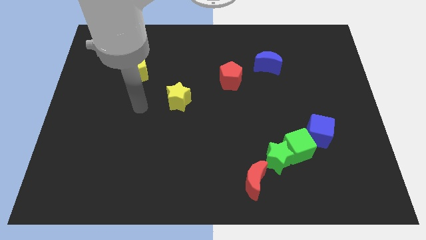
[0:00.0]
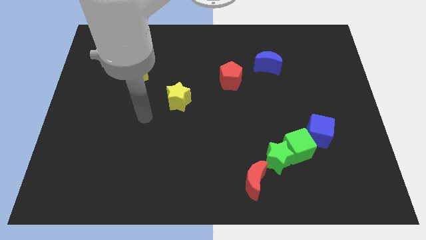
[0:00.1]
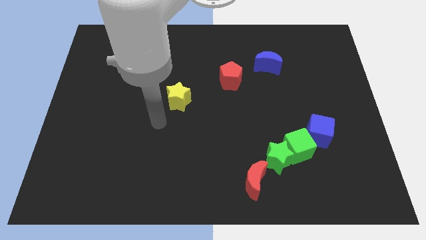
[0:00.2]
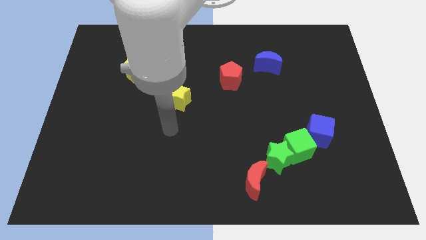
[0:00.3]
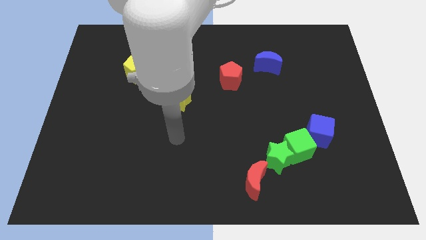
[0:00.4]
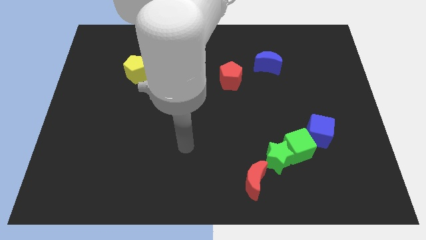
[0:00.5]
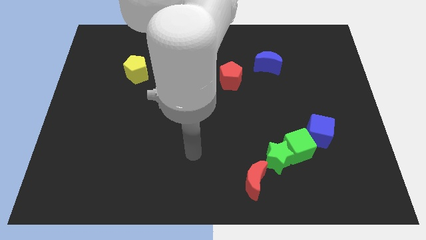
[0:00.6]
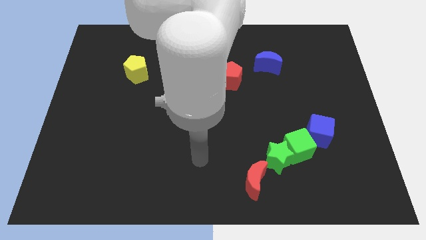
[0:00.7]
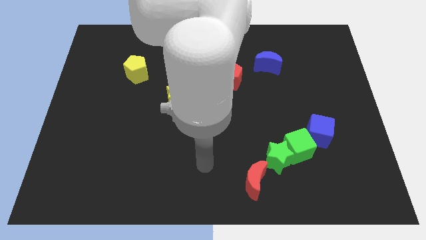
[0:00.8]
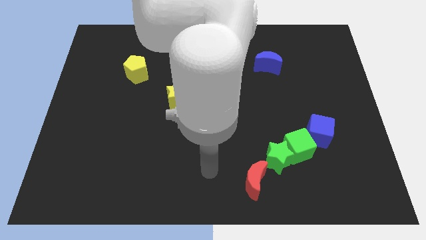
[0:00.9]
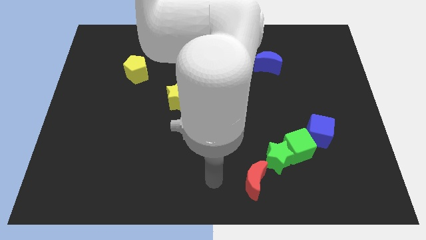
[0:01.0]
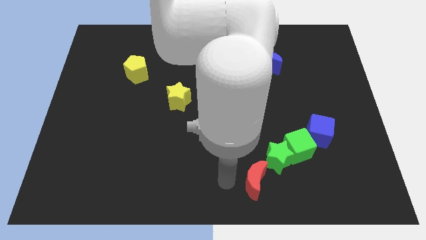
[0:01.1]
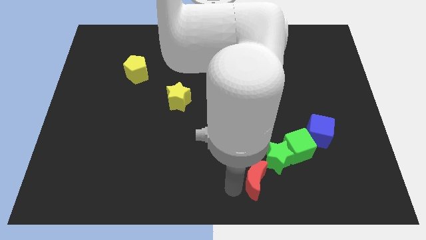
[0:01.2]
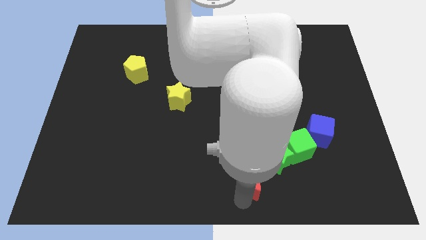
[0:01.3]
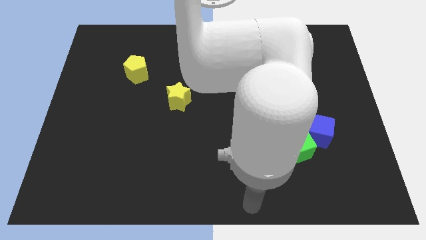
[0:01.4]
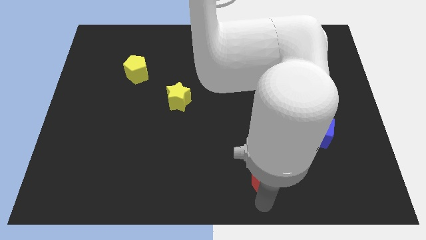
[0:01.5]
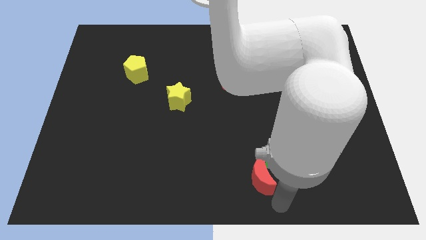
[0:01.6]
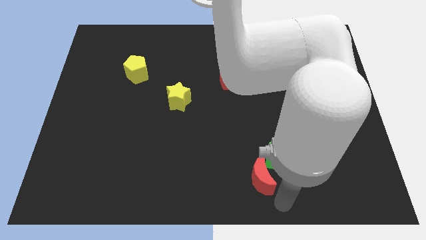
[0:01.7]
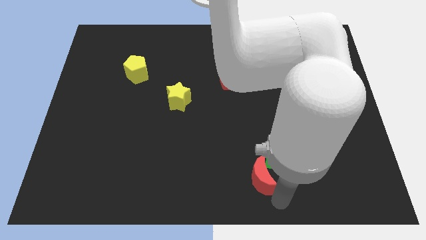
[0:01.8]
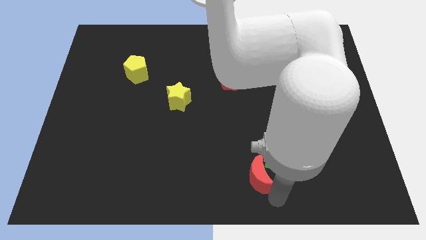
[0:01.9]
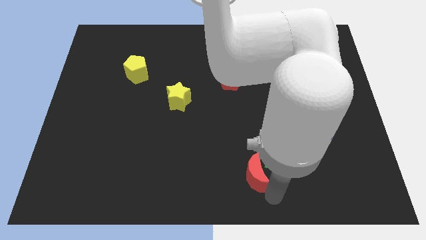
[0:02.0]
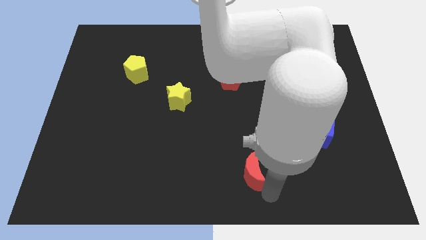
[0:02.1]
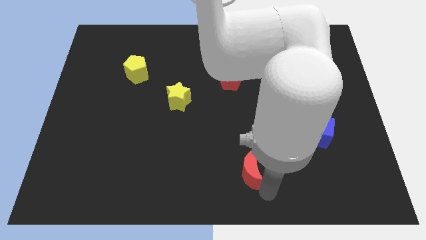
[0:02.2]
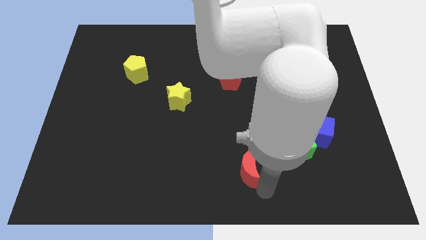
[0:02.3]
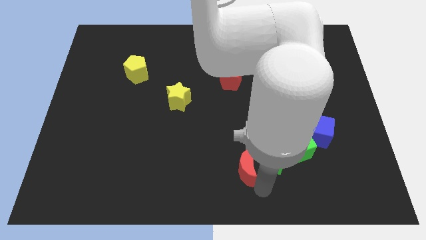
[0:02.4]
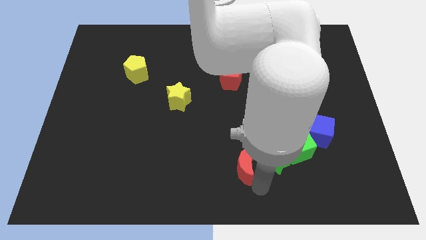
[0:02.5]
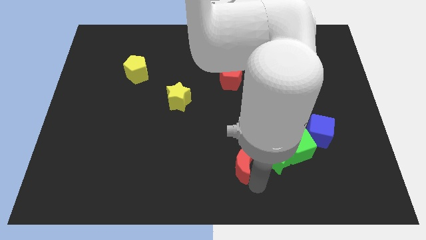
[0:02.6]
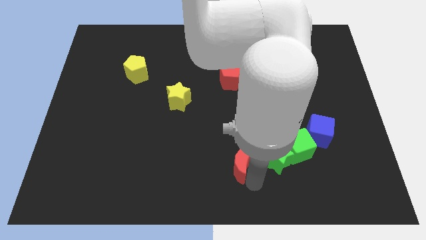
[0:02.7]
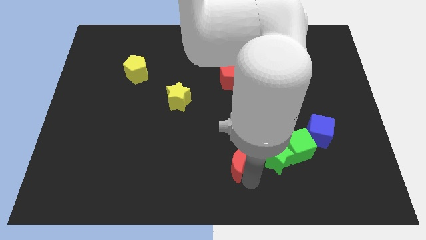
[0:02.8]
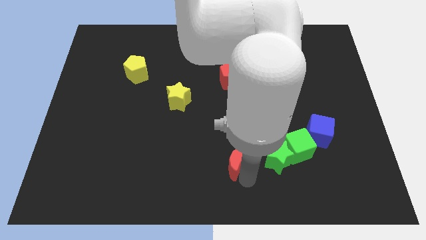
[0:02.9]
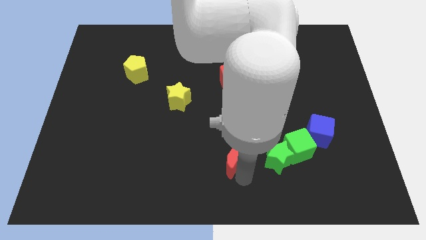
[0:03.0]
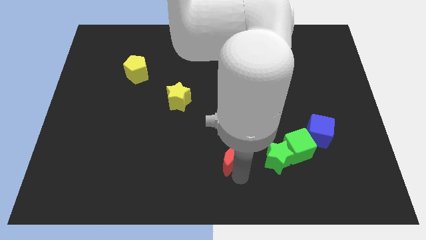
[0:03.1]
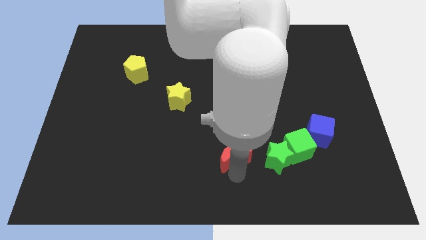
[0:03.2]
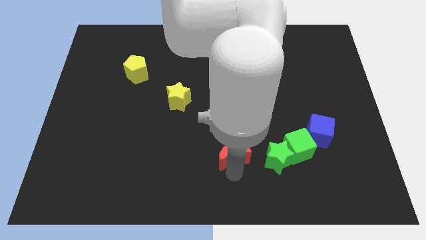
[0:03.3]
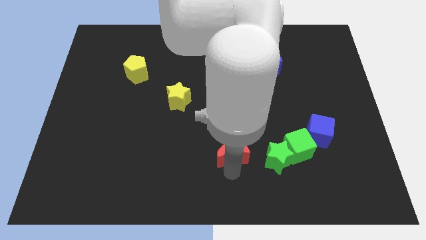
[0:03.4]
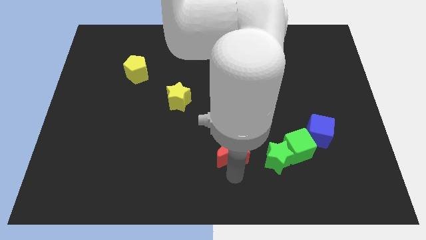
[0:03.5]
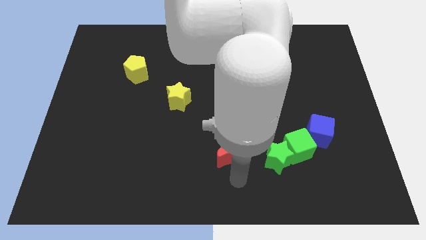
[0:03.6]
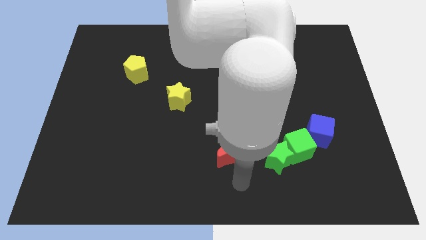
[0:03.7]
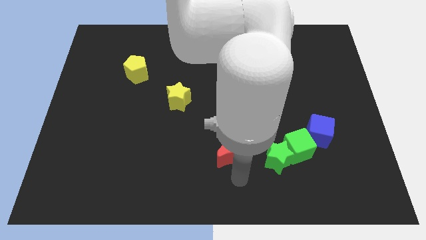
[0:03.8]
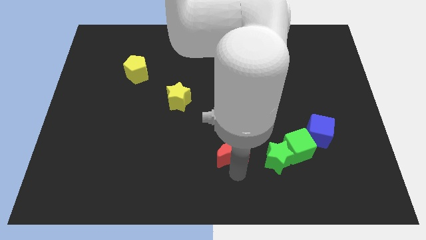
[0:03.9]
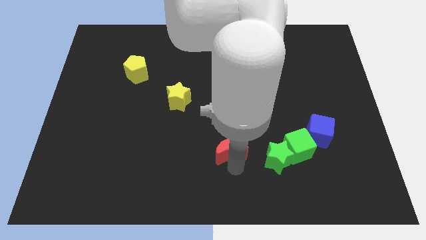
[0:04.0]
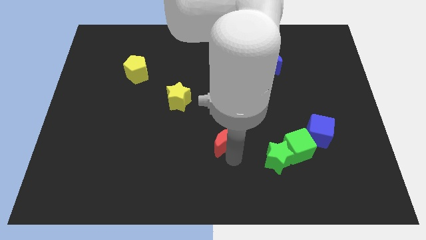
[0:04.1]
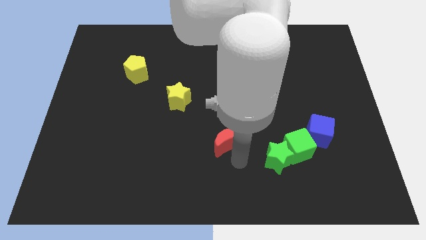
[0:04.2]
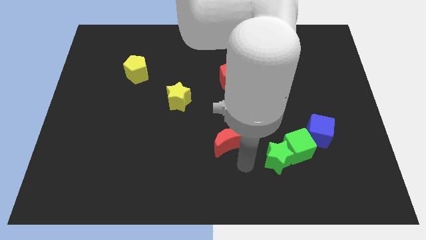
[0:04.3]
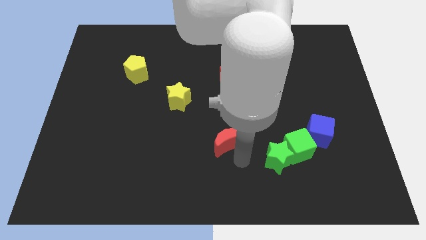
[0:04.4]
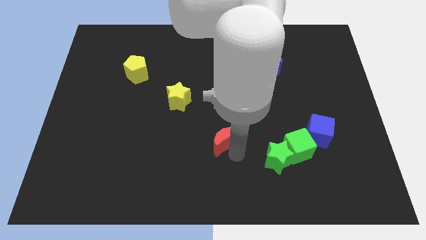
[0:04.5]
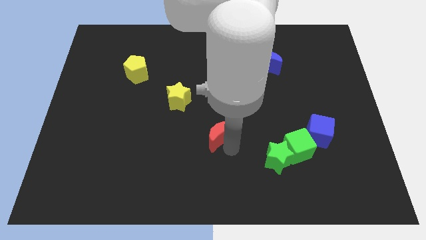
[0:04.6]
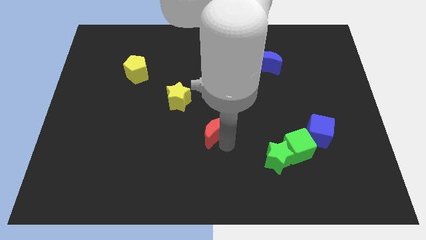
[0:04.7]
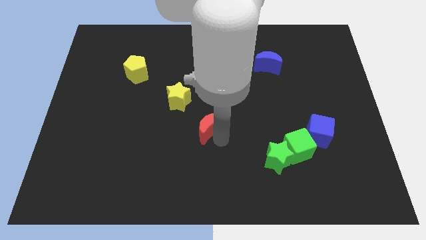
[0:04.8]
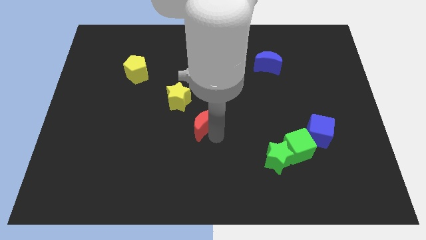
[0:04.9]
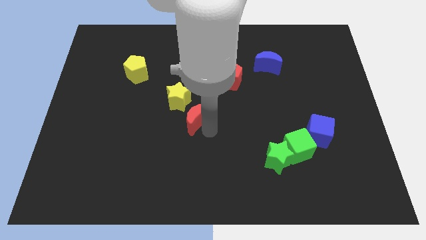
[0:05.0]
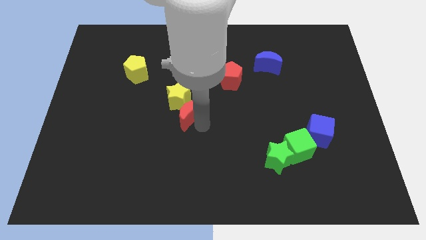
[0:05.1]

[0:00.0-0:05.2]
move the red moon to the yellow star

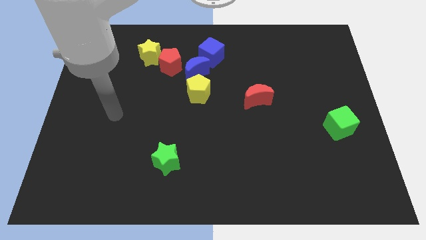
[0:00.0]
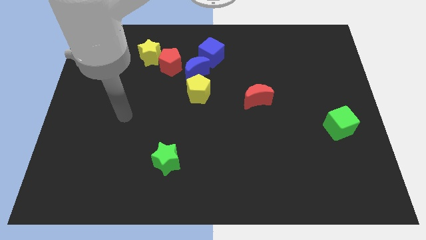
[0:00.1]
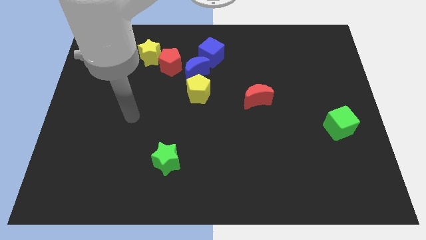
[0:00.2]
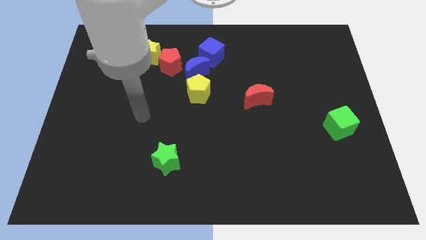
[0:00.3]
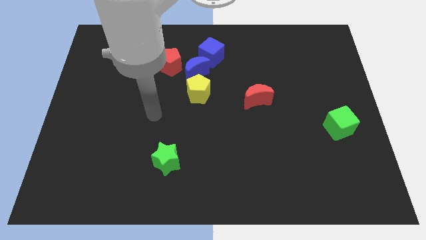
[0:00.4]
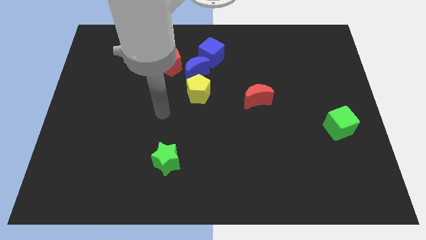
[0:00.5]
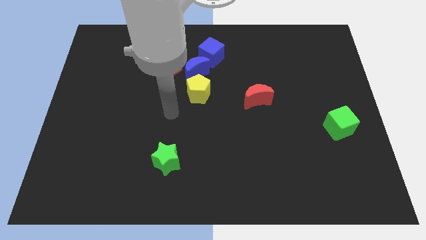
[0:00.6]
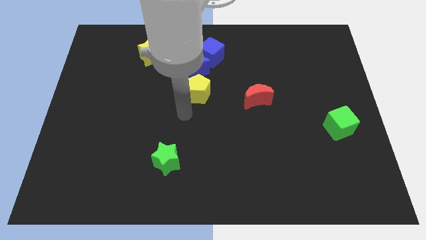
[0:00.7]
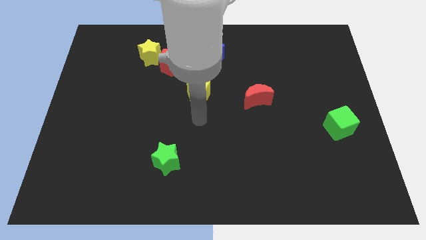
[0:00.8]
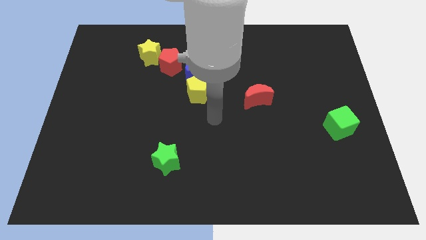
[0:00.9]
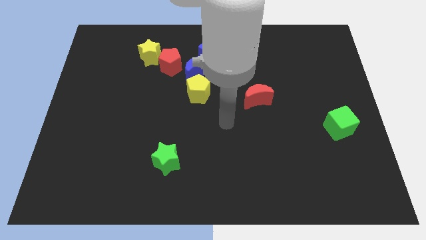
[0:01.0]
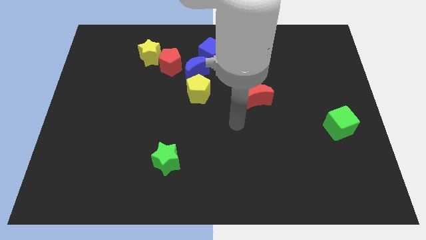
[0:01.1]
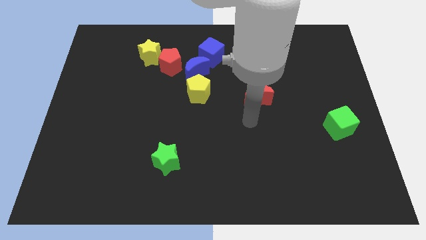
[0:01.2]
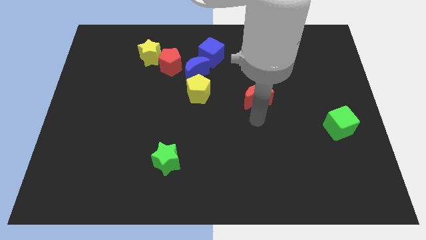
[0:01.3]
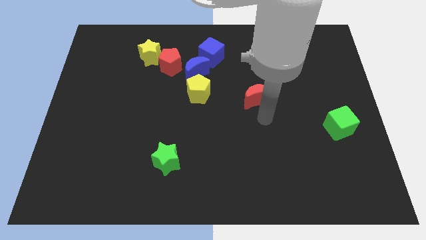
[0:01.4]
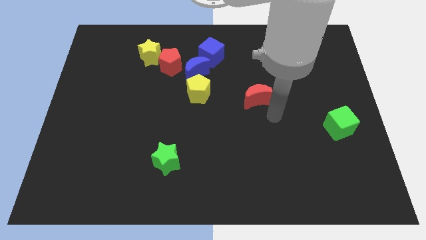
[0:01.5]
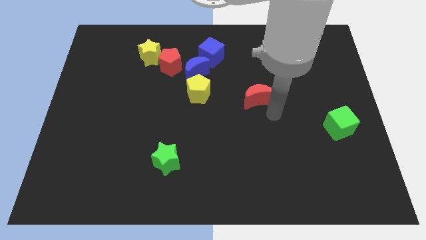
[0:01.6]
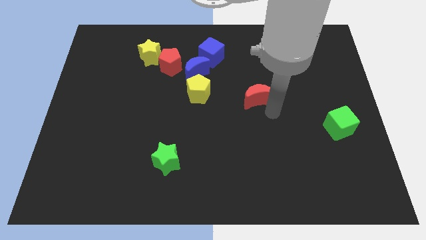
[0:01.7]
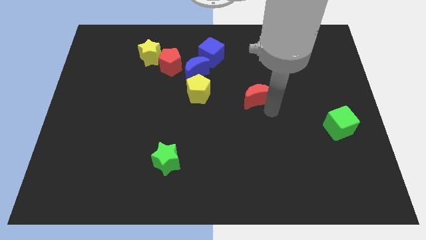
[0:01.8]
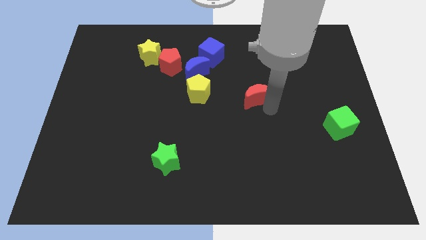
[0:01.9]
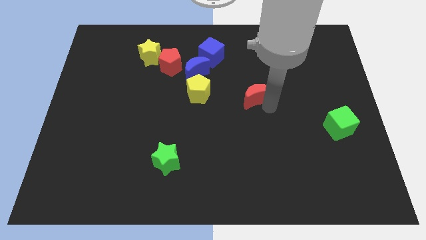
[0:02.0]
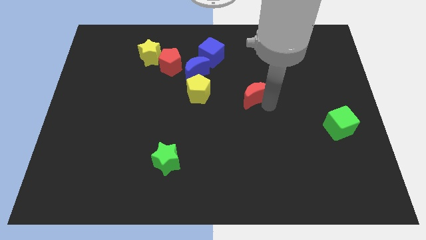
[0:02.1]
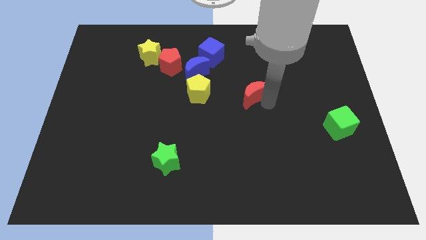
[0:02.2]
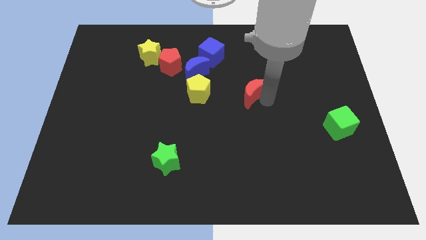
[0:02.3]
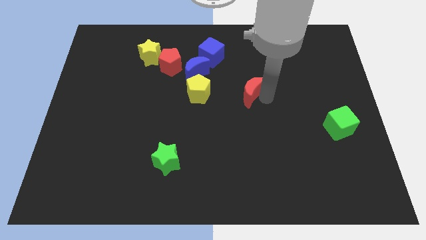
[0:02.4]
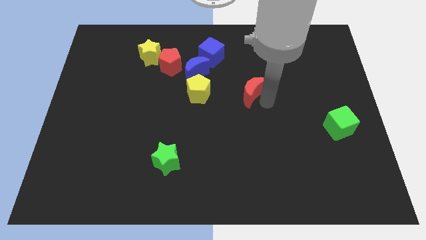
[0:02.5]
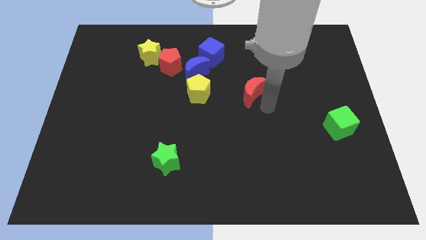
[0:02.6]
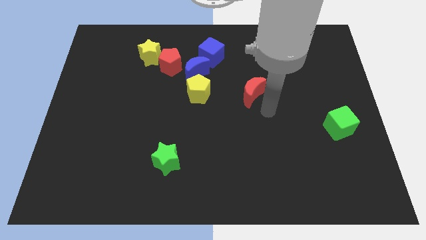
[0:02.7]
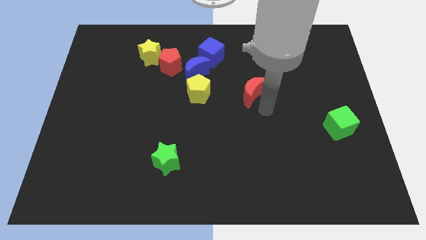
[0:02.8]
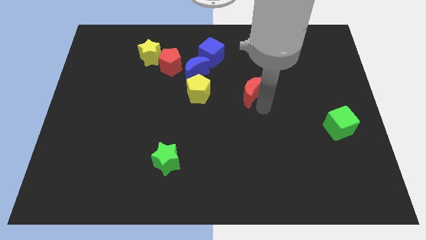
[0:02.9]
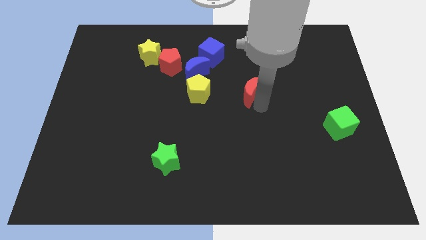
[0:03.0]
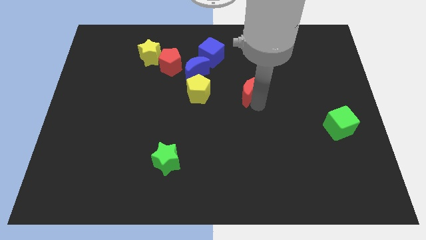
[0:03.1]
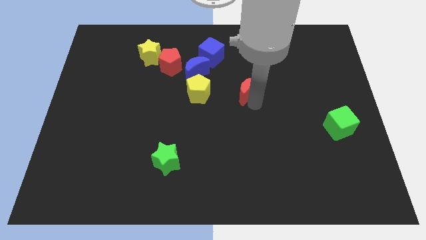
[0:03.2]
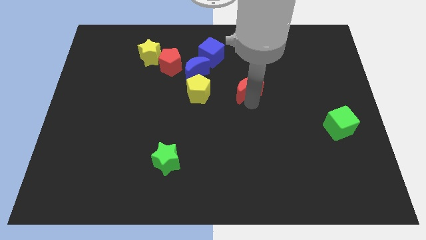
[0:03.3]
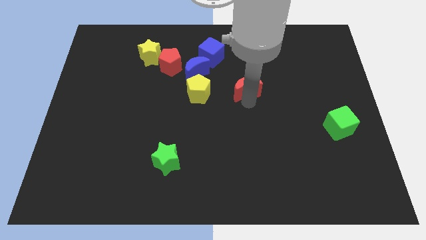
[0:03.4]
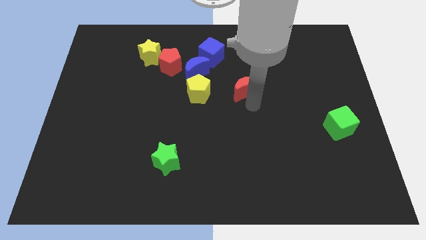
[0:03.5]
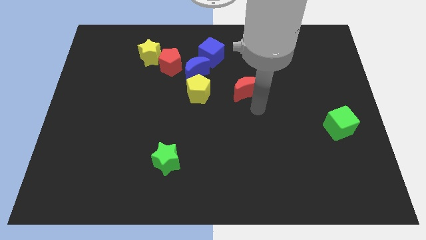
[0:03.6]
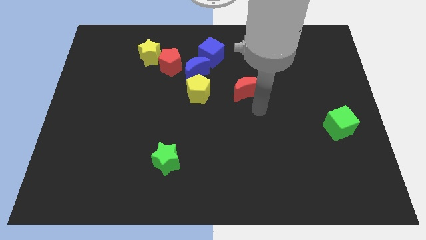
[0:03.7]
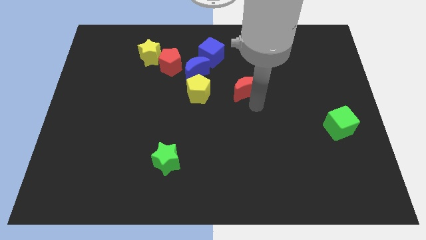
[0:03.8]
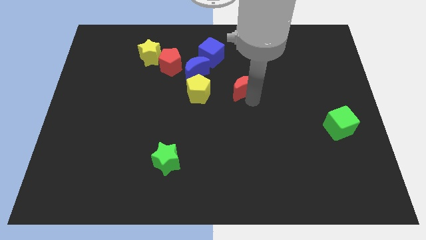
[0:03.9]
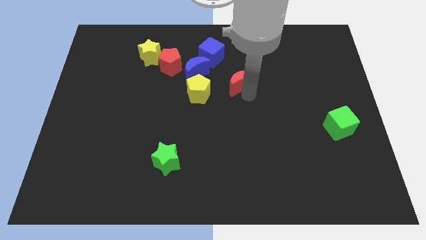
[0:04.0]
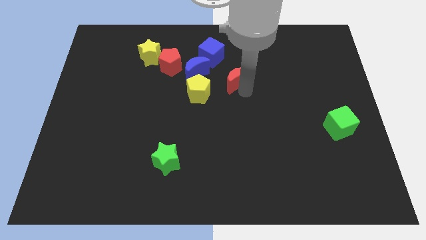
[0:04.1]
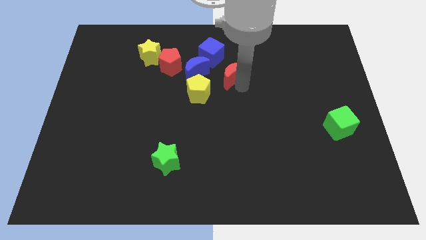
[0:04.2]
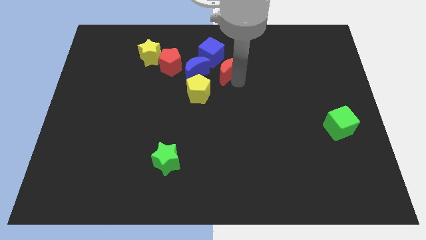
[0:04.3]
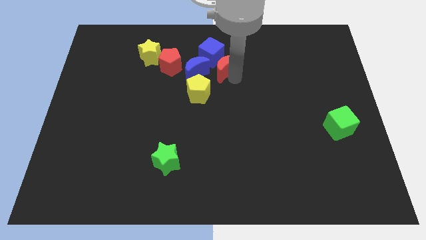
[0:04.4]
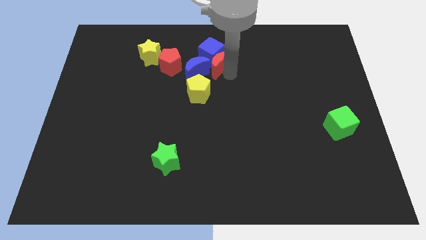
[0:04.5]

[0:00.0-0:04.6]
move the red moon close to the blue cube
